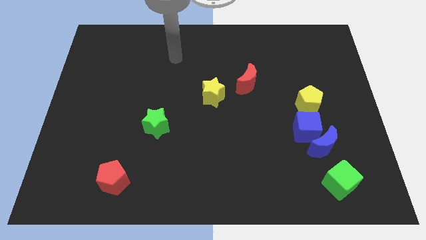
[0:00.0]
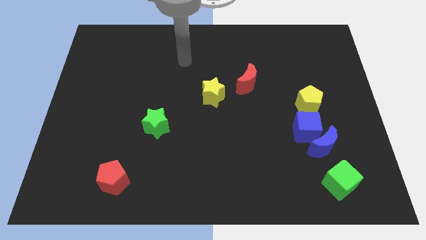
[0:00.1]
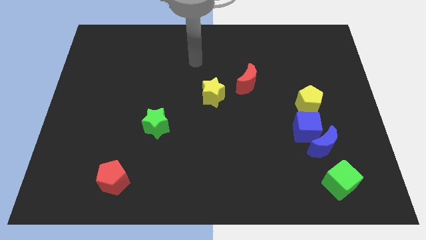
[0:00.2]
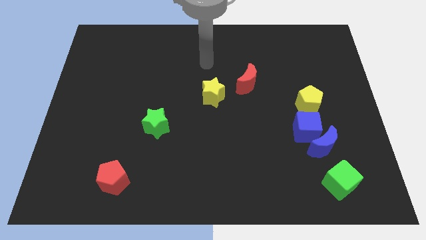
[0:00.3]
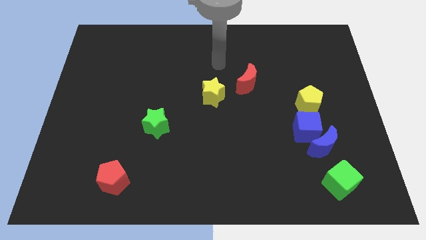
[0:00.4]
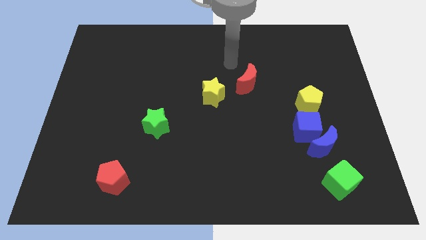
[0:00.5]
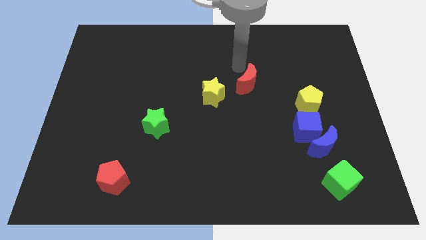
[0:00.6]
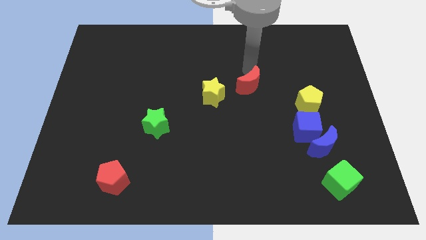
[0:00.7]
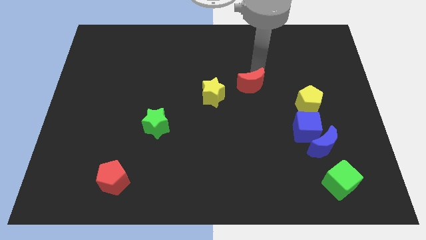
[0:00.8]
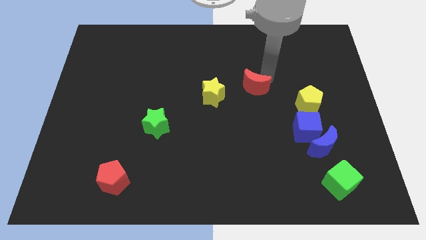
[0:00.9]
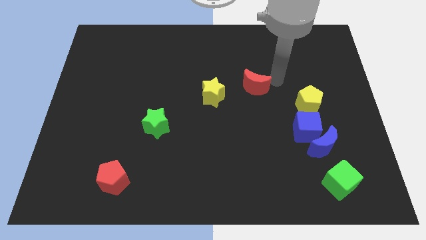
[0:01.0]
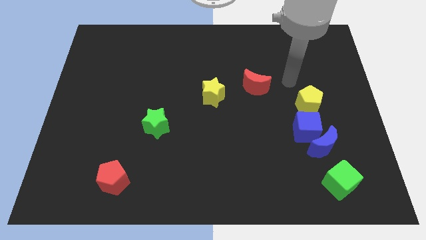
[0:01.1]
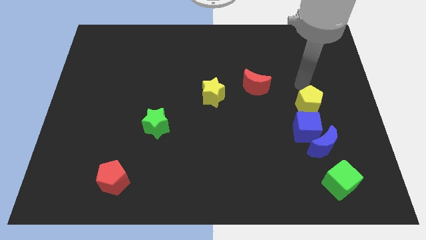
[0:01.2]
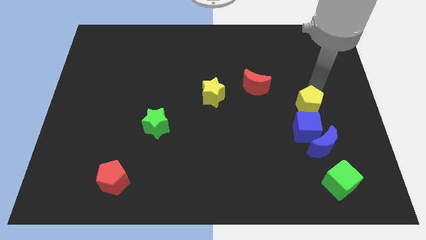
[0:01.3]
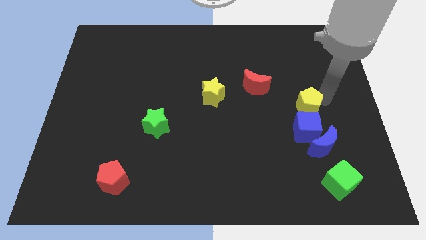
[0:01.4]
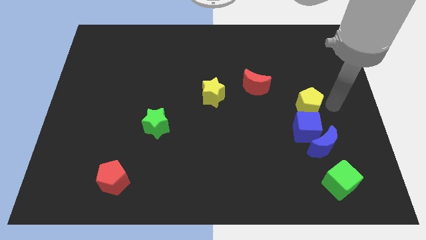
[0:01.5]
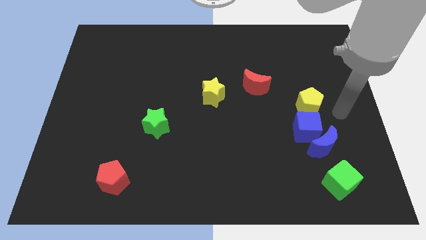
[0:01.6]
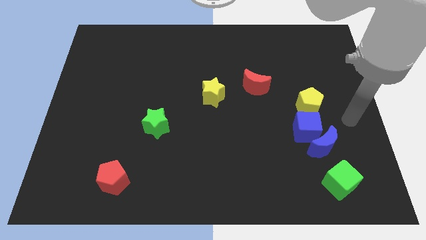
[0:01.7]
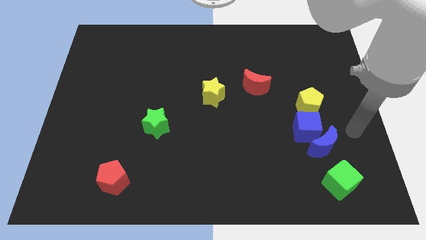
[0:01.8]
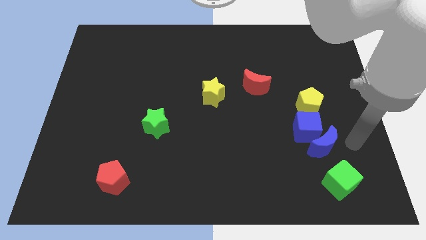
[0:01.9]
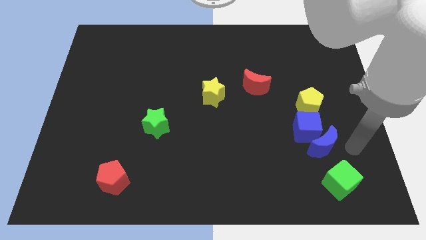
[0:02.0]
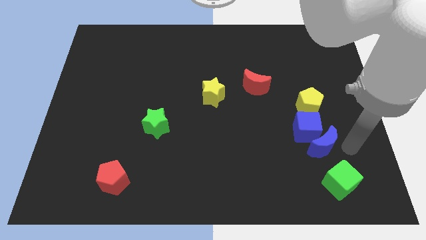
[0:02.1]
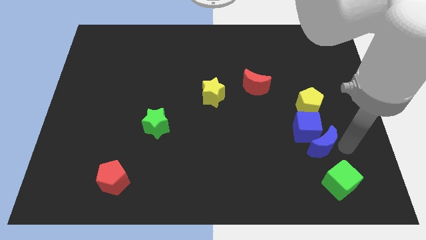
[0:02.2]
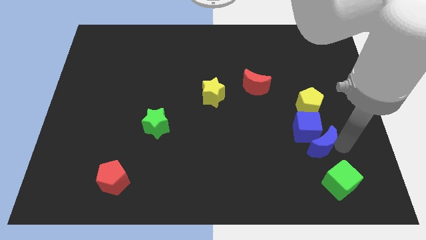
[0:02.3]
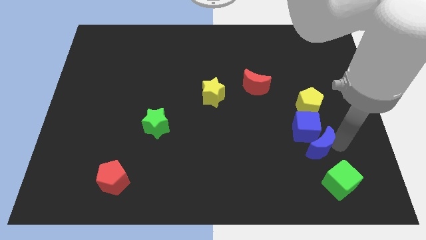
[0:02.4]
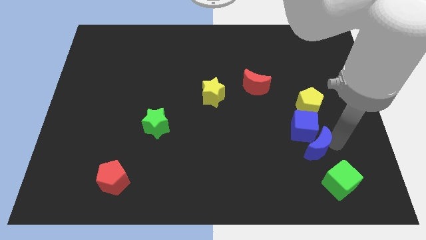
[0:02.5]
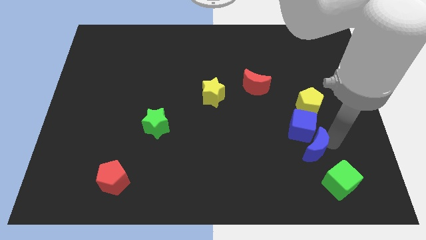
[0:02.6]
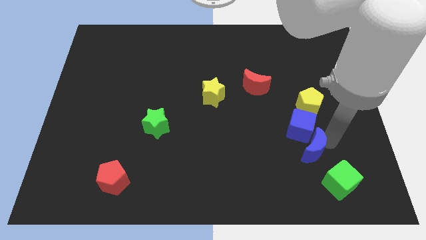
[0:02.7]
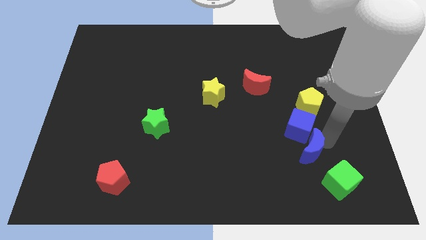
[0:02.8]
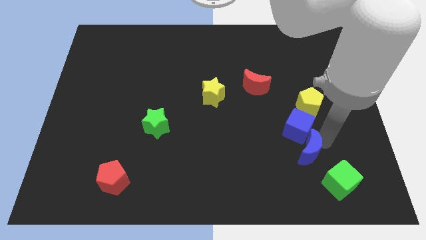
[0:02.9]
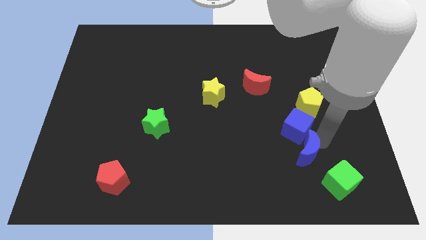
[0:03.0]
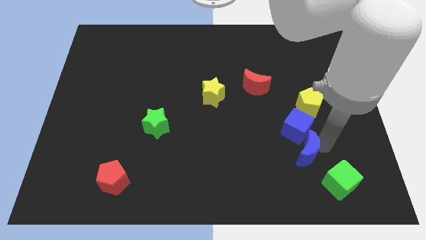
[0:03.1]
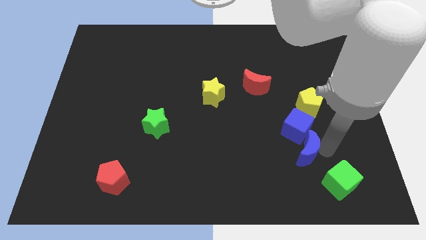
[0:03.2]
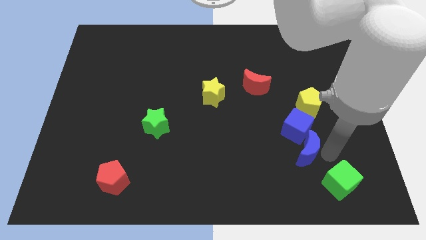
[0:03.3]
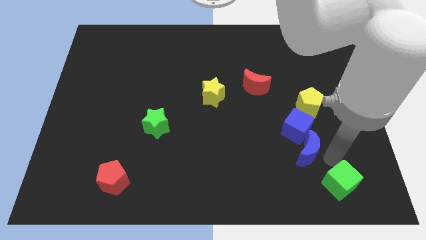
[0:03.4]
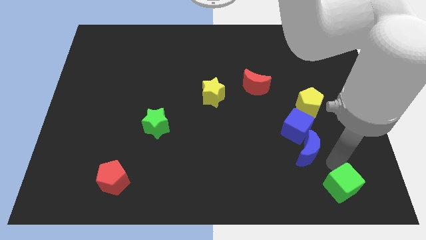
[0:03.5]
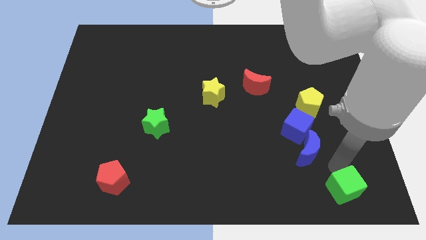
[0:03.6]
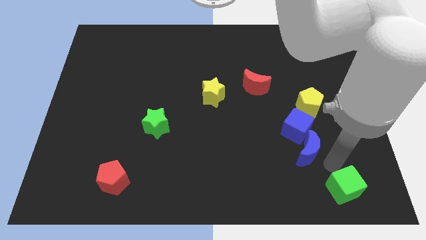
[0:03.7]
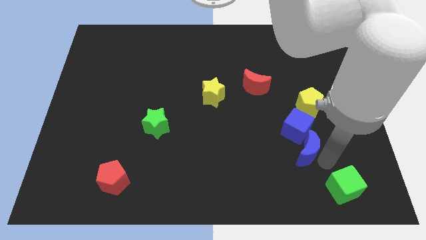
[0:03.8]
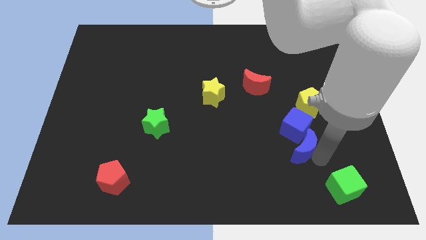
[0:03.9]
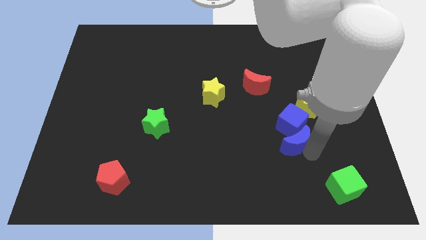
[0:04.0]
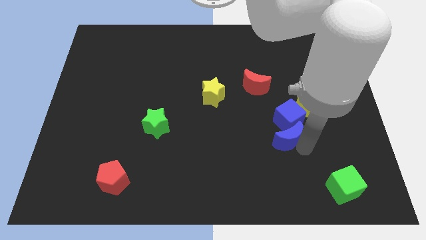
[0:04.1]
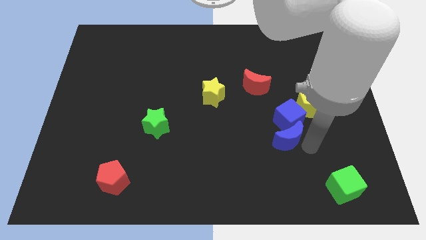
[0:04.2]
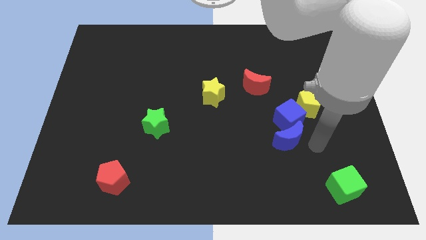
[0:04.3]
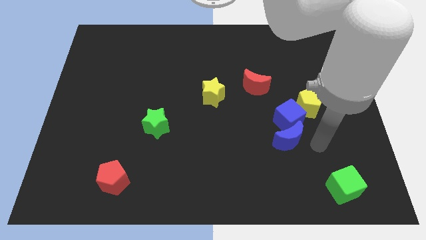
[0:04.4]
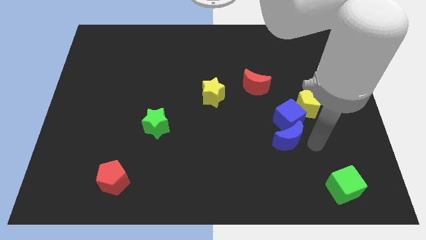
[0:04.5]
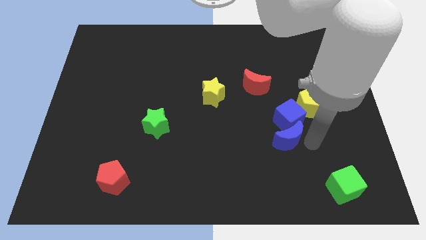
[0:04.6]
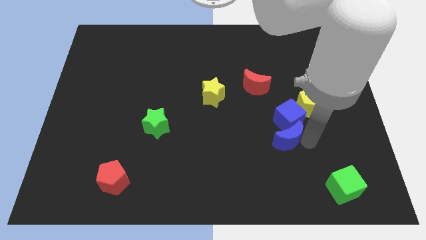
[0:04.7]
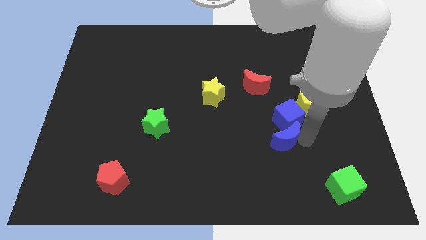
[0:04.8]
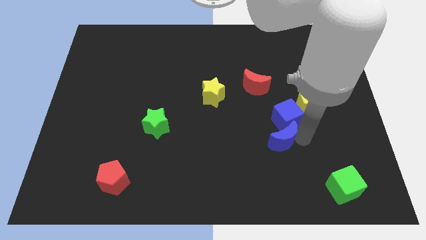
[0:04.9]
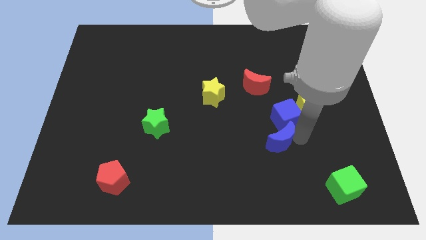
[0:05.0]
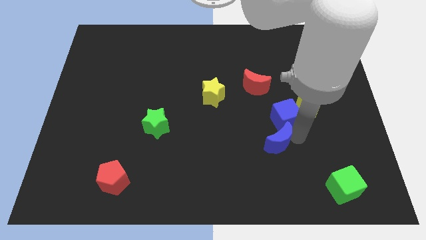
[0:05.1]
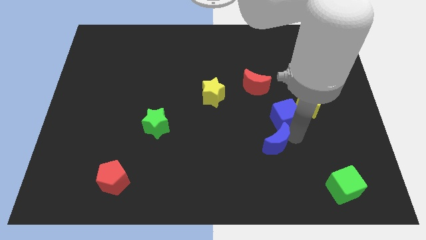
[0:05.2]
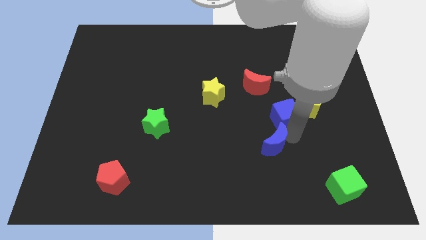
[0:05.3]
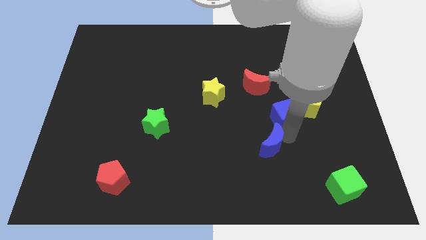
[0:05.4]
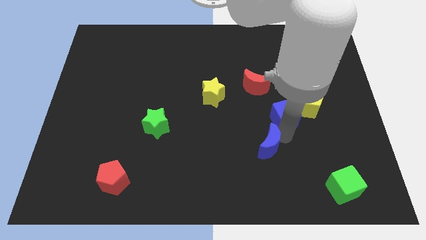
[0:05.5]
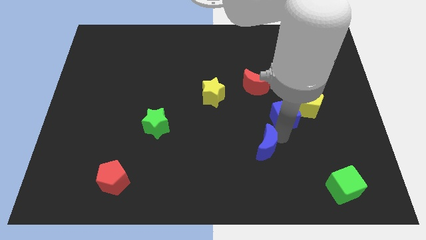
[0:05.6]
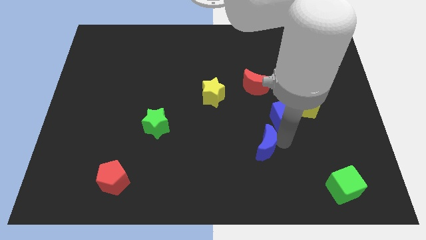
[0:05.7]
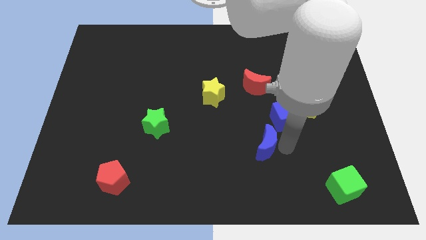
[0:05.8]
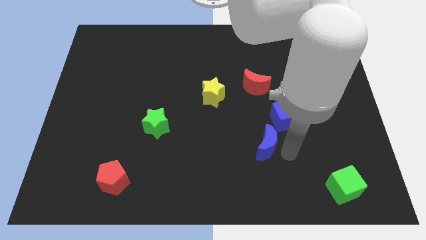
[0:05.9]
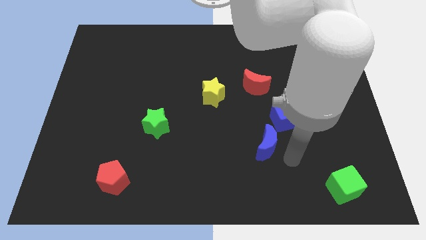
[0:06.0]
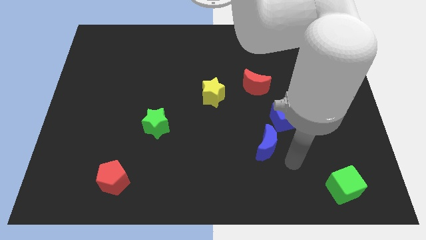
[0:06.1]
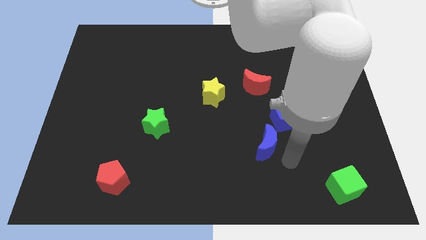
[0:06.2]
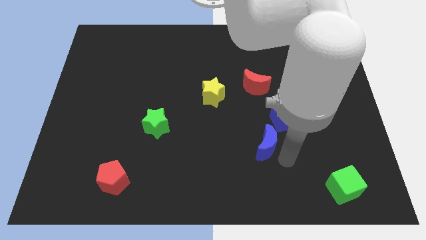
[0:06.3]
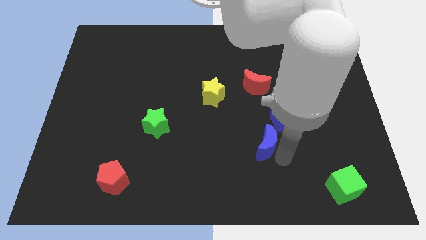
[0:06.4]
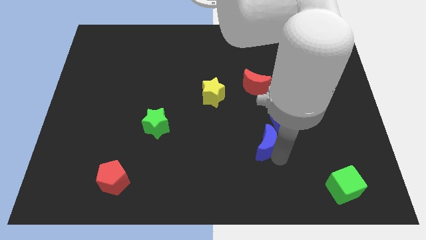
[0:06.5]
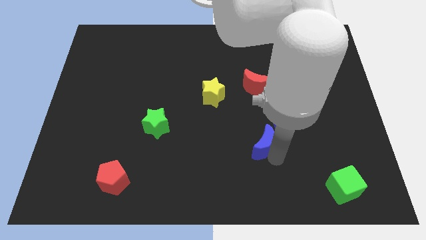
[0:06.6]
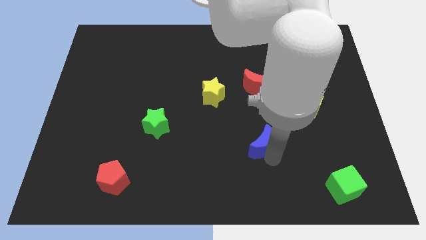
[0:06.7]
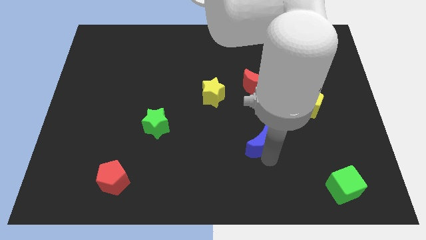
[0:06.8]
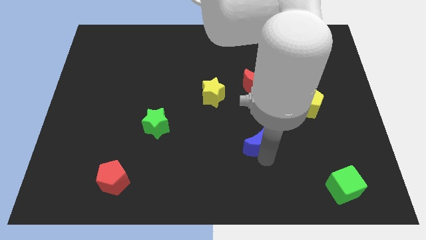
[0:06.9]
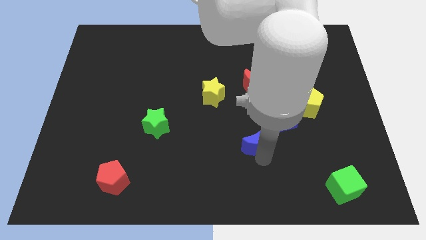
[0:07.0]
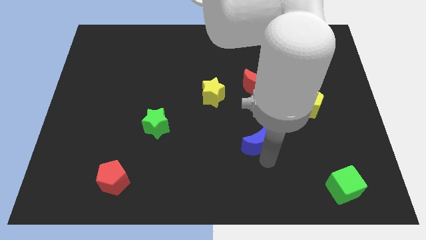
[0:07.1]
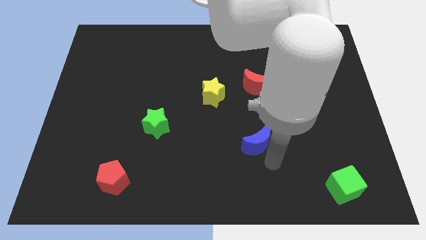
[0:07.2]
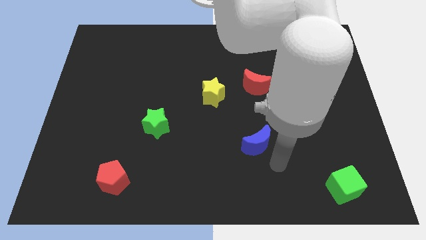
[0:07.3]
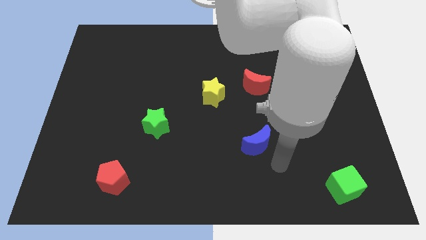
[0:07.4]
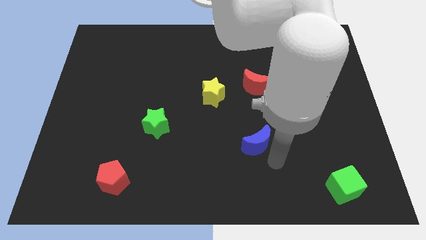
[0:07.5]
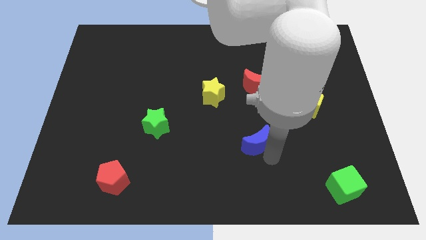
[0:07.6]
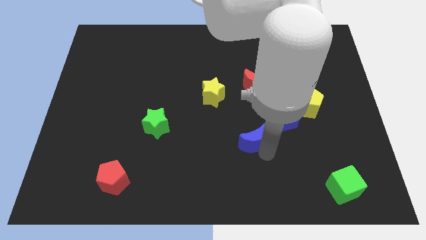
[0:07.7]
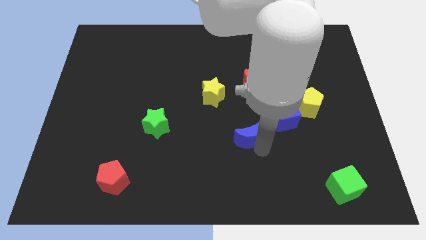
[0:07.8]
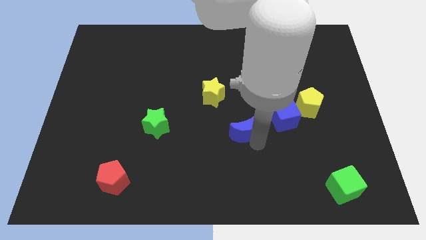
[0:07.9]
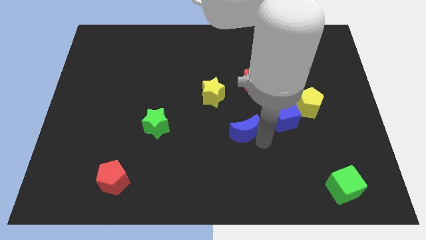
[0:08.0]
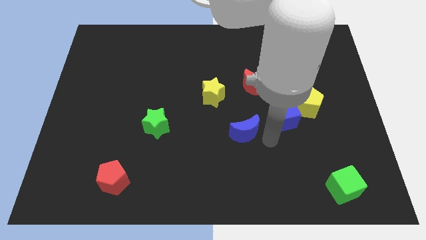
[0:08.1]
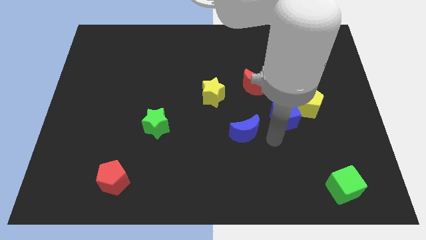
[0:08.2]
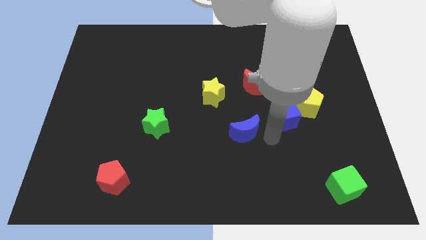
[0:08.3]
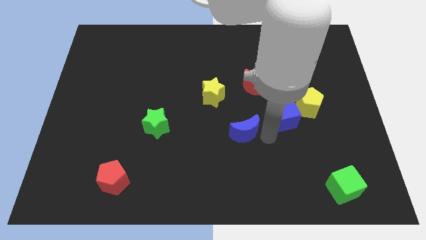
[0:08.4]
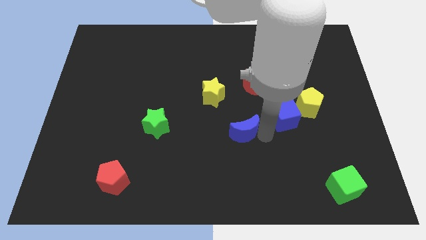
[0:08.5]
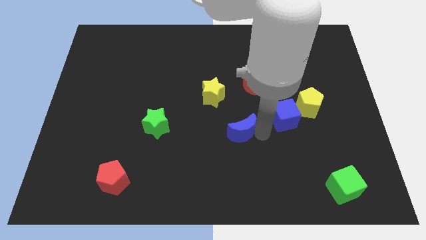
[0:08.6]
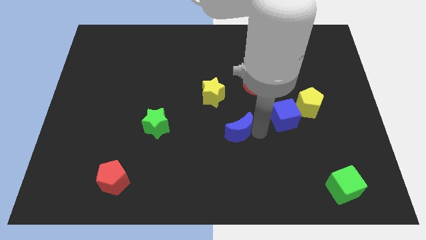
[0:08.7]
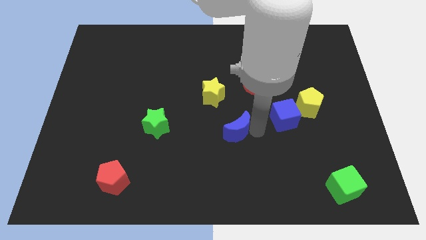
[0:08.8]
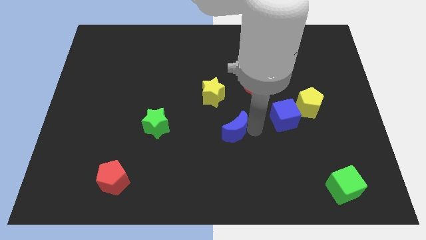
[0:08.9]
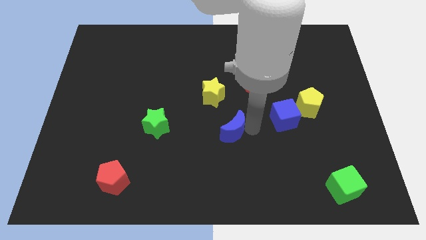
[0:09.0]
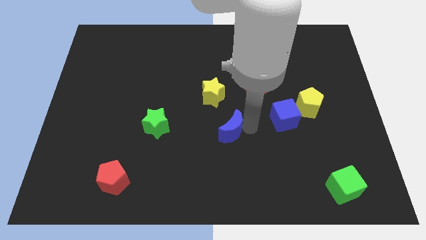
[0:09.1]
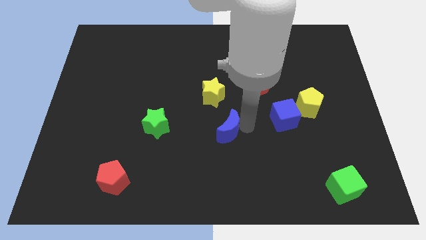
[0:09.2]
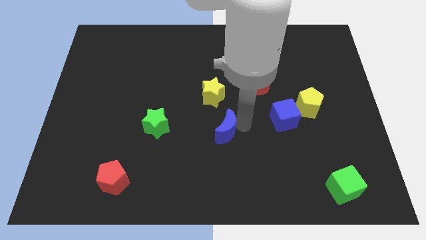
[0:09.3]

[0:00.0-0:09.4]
put the blue moon to the right side of the green star
